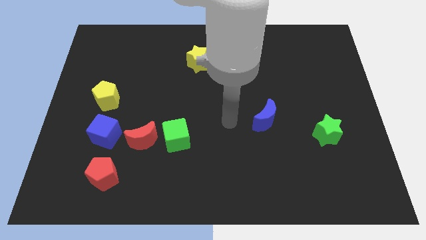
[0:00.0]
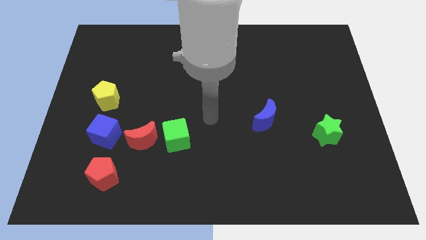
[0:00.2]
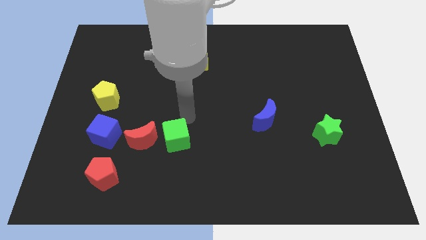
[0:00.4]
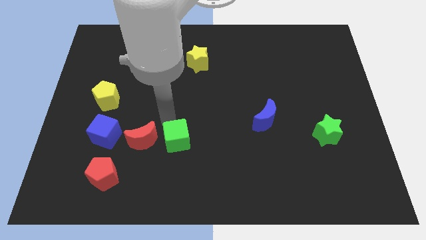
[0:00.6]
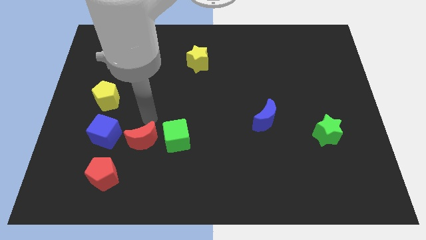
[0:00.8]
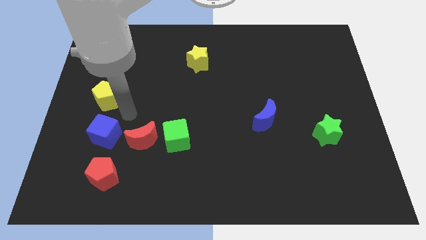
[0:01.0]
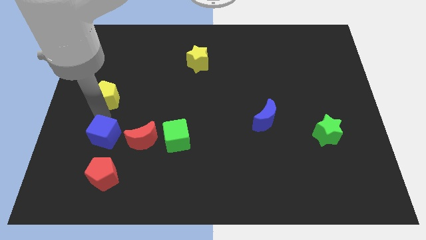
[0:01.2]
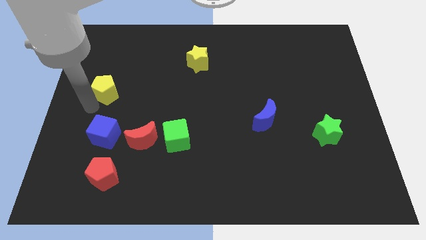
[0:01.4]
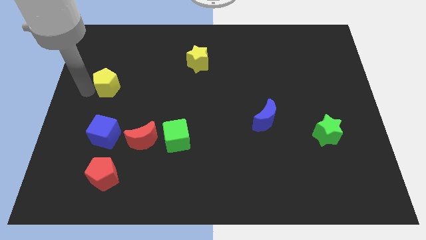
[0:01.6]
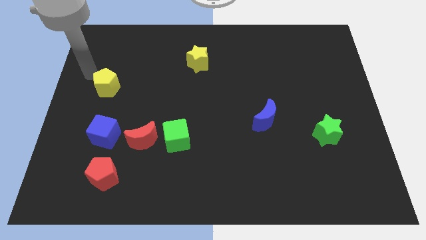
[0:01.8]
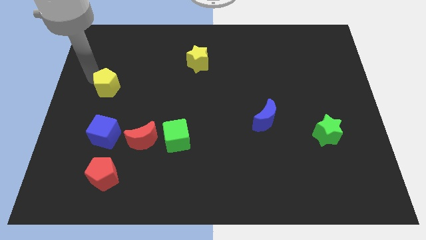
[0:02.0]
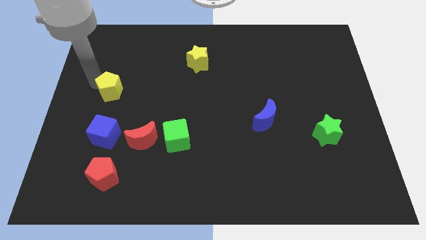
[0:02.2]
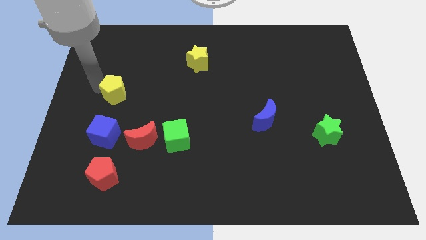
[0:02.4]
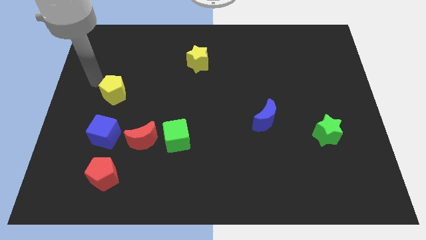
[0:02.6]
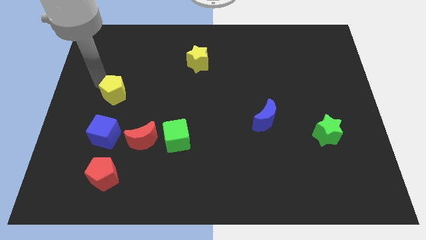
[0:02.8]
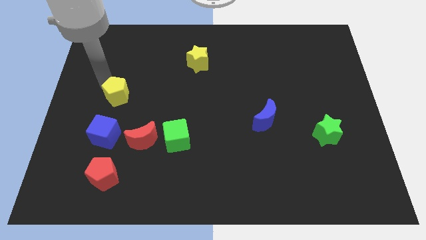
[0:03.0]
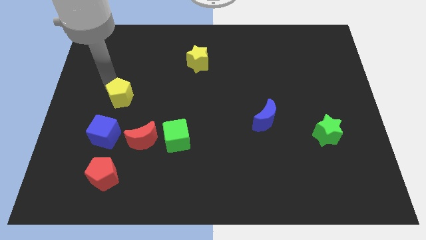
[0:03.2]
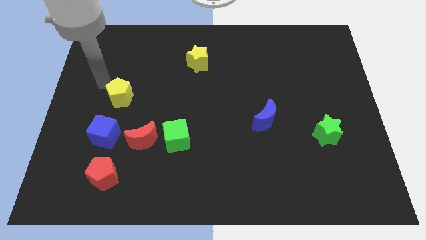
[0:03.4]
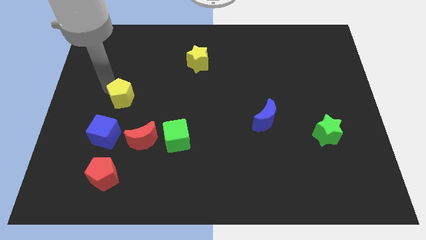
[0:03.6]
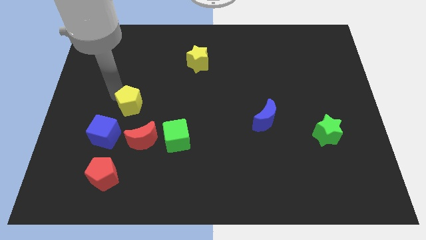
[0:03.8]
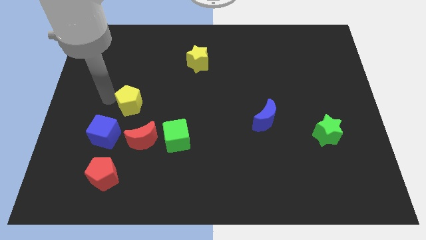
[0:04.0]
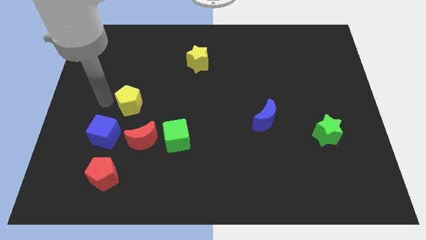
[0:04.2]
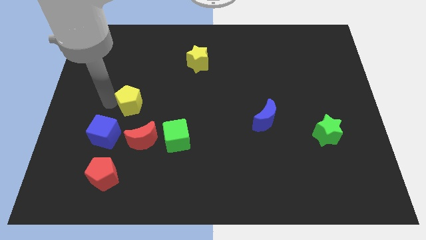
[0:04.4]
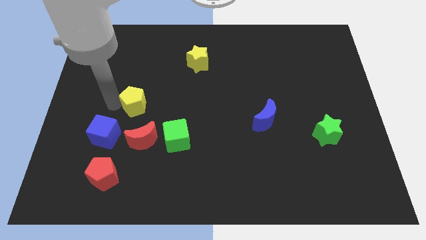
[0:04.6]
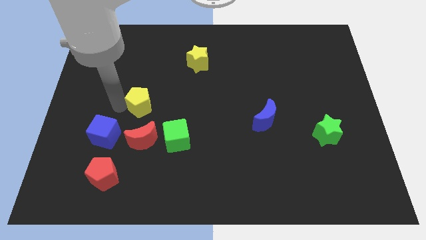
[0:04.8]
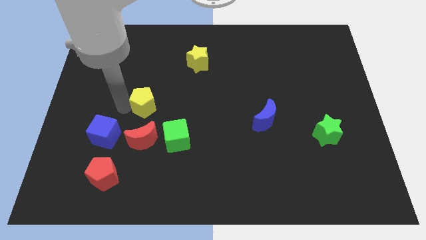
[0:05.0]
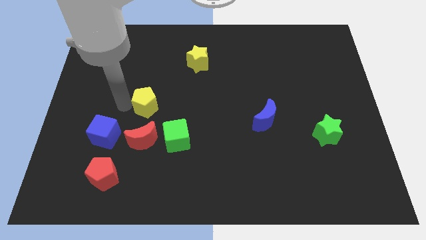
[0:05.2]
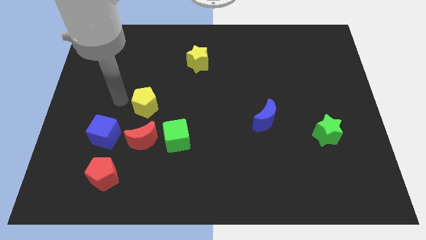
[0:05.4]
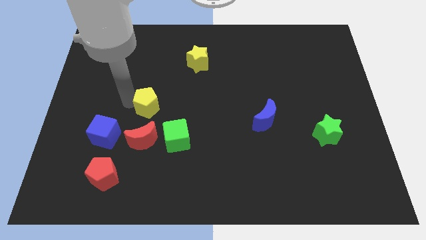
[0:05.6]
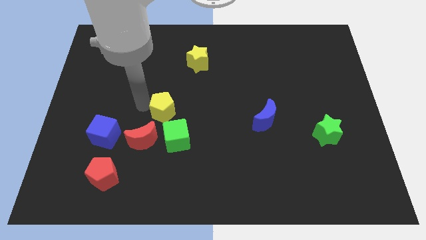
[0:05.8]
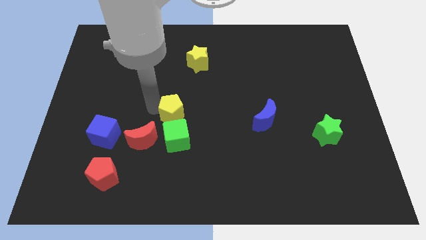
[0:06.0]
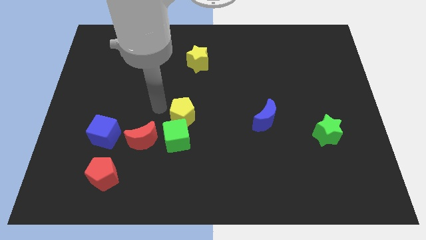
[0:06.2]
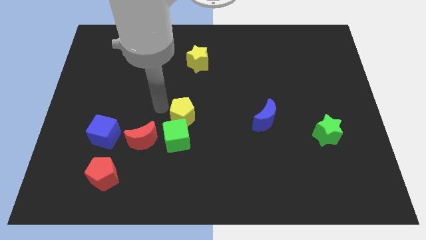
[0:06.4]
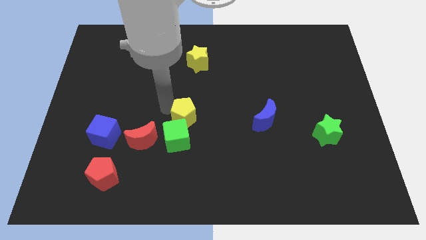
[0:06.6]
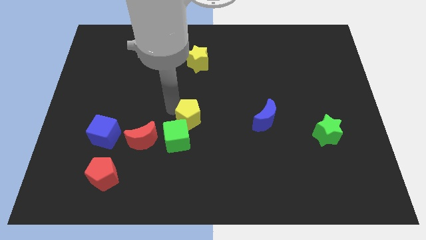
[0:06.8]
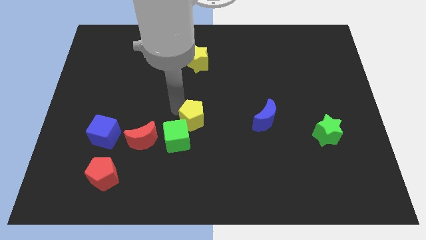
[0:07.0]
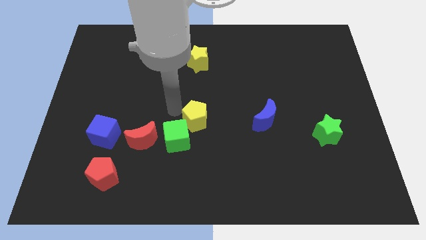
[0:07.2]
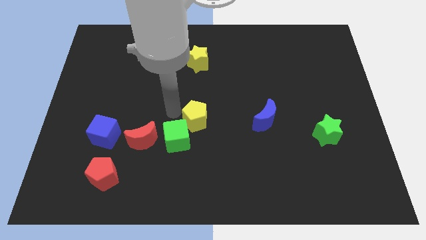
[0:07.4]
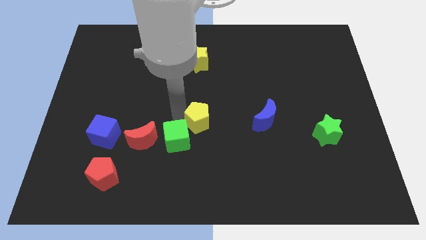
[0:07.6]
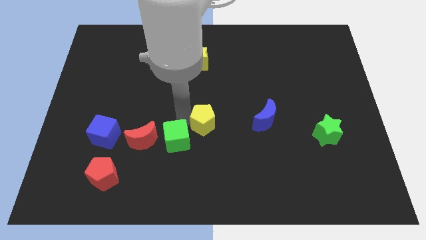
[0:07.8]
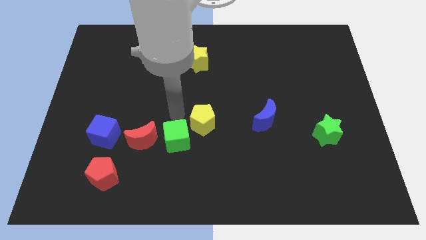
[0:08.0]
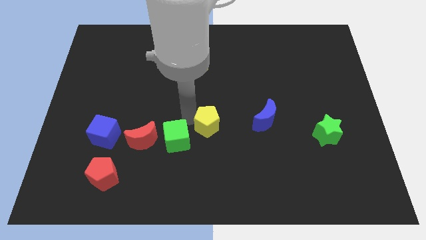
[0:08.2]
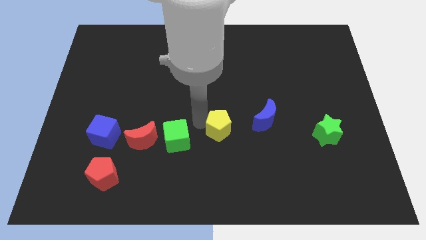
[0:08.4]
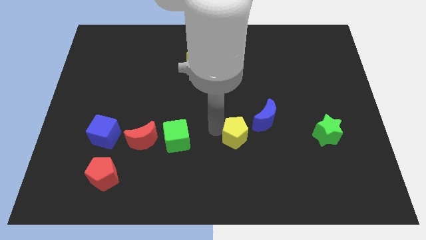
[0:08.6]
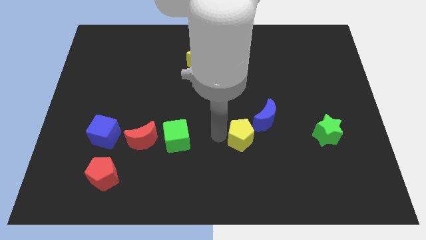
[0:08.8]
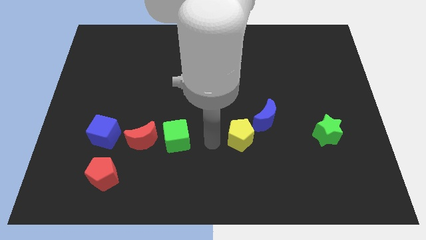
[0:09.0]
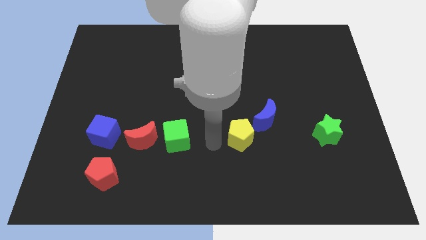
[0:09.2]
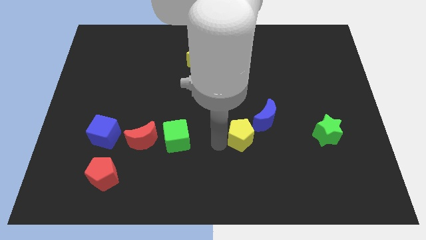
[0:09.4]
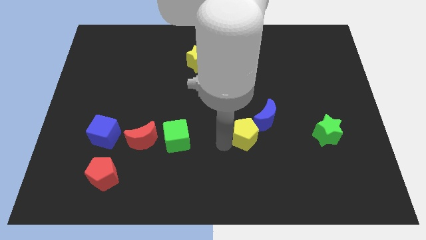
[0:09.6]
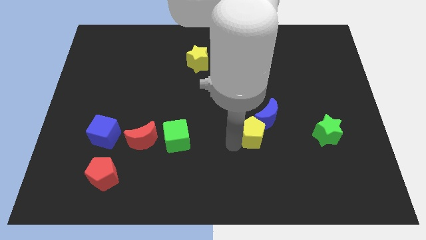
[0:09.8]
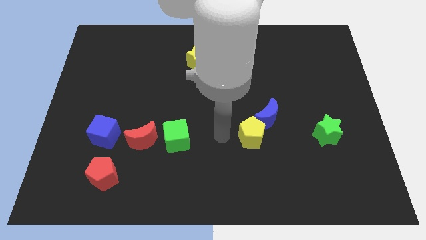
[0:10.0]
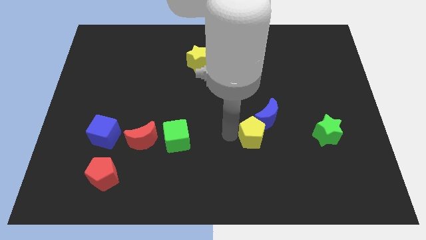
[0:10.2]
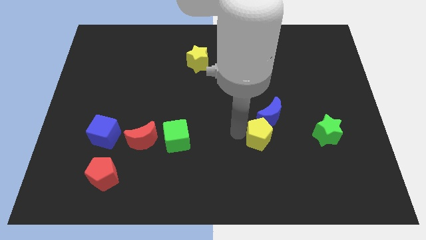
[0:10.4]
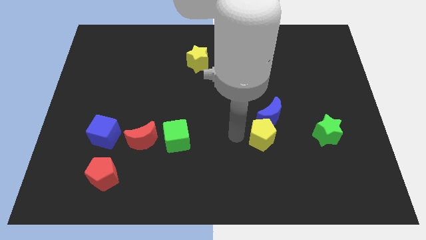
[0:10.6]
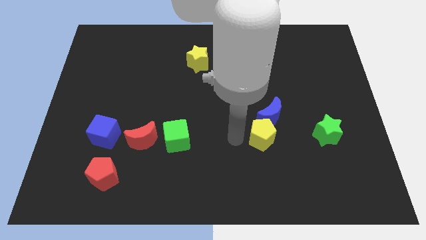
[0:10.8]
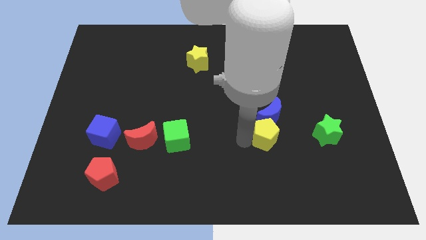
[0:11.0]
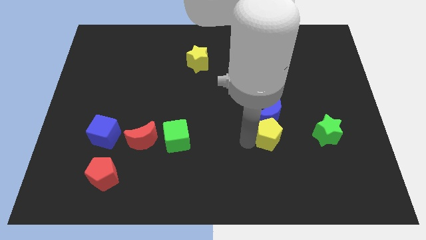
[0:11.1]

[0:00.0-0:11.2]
slide the yellow pentagon diagonally down and to the right of the blue moon

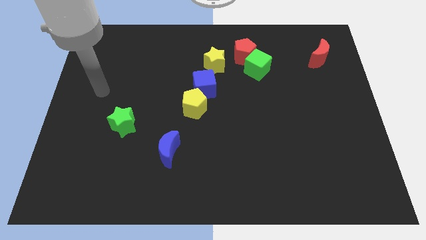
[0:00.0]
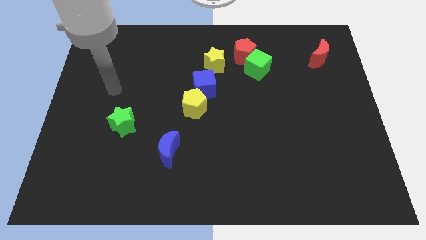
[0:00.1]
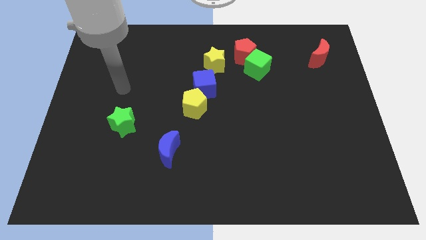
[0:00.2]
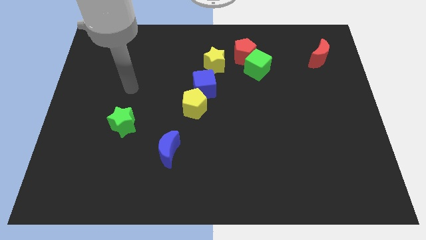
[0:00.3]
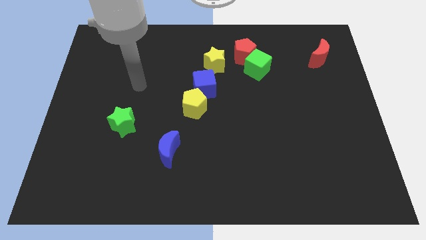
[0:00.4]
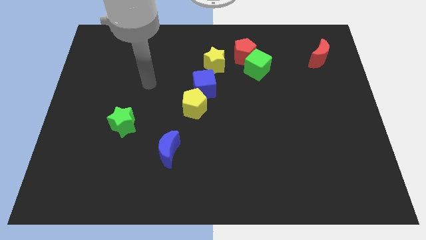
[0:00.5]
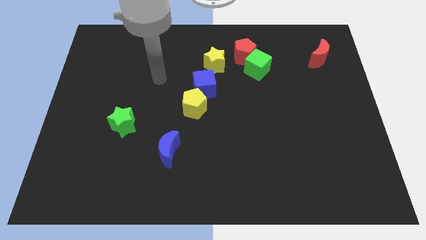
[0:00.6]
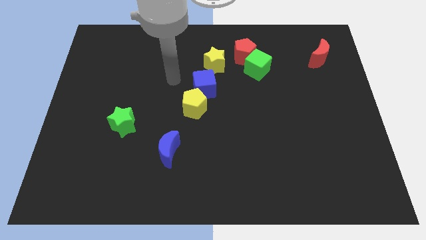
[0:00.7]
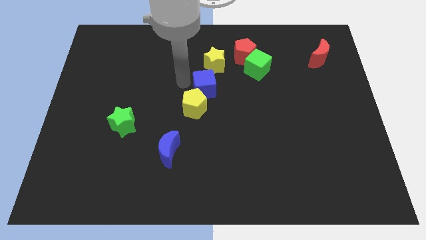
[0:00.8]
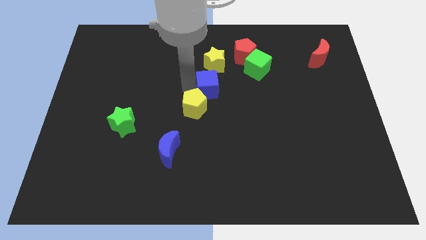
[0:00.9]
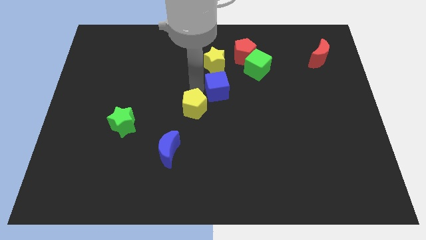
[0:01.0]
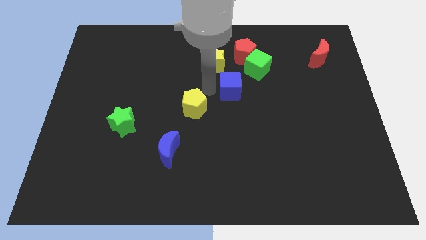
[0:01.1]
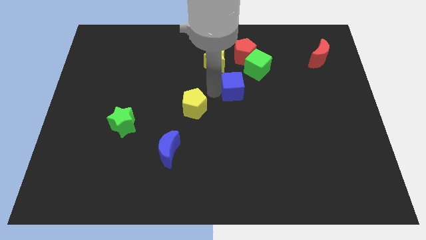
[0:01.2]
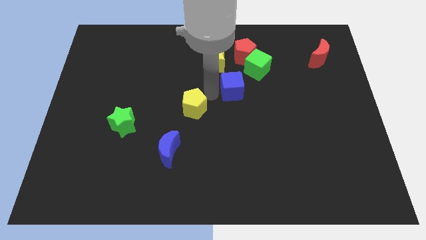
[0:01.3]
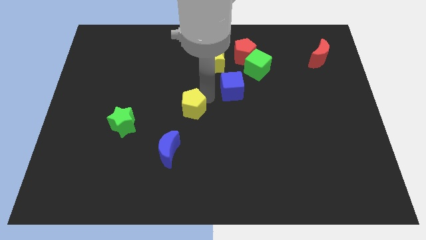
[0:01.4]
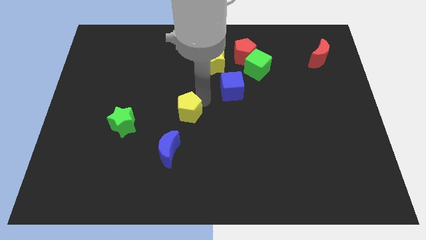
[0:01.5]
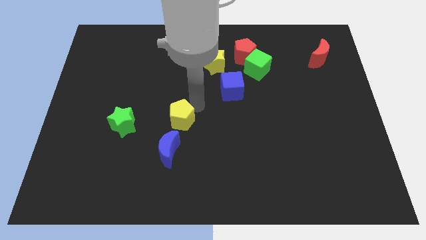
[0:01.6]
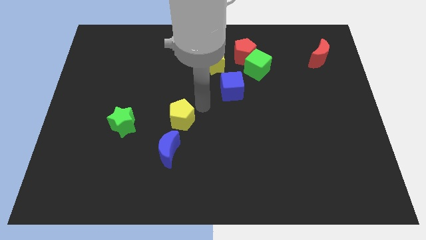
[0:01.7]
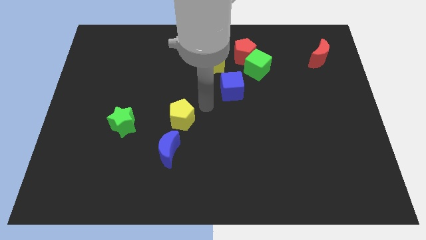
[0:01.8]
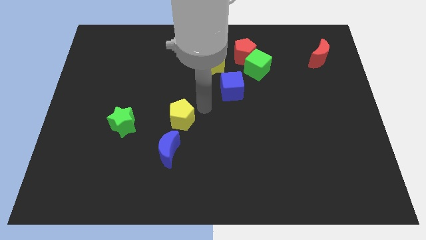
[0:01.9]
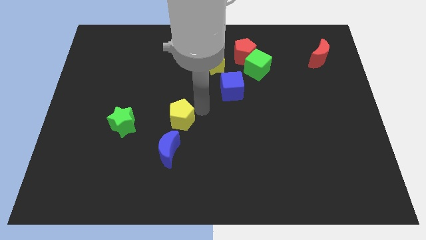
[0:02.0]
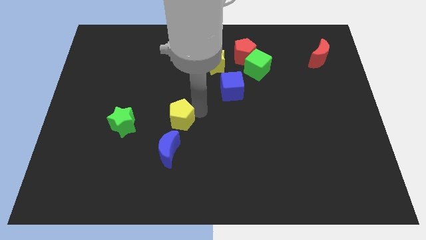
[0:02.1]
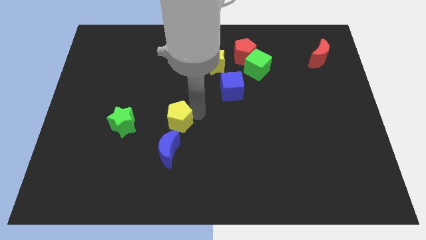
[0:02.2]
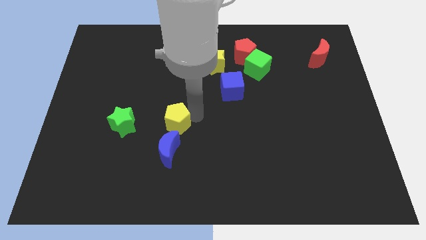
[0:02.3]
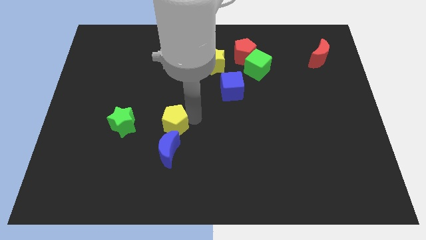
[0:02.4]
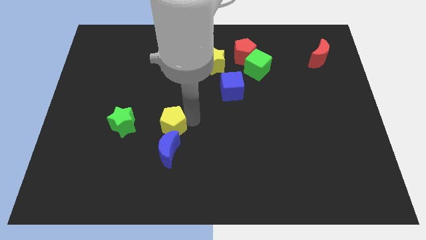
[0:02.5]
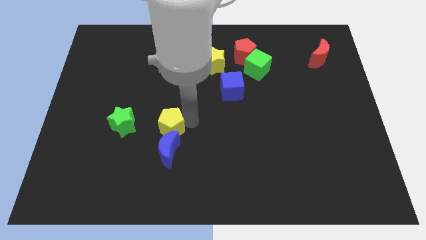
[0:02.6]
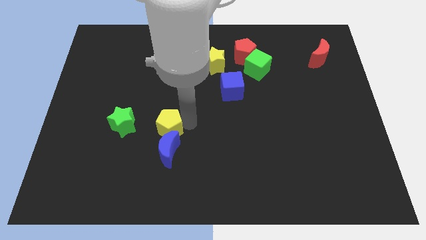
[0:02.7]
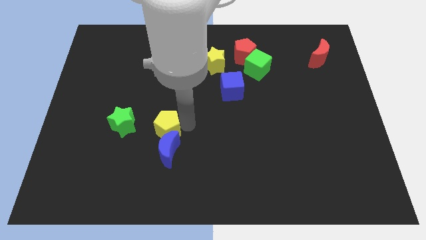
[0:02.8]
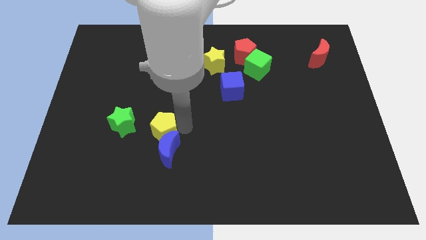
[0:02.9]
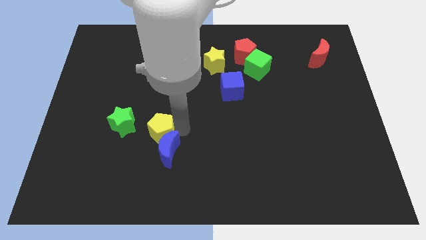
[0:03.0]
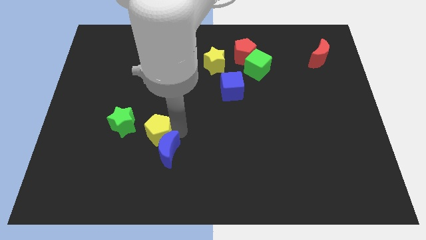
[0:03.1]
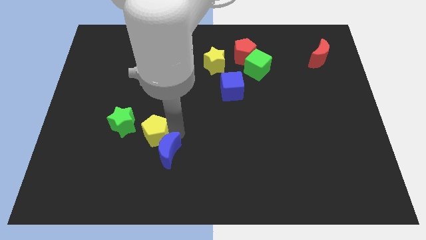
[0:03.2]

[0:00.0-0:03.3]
move the yellow pentagon just left of the blue moon
